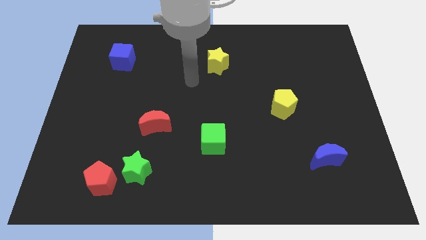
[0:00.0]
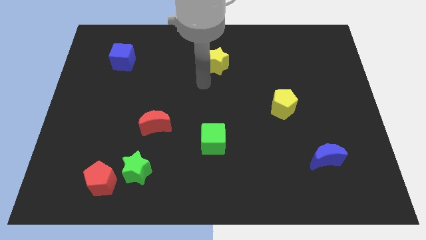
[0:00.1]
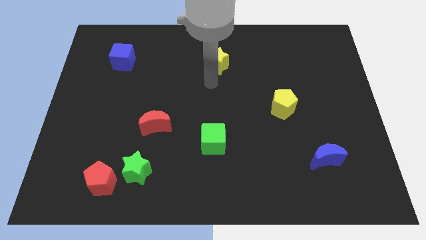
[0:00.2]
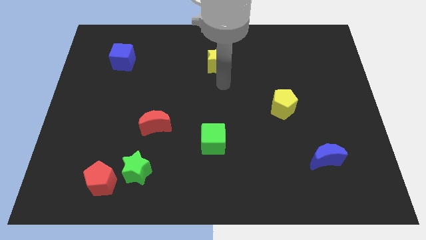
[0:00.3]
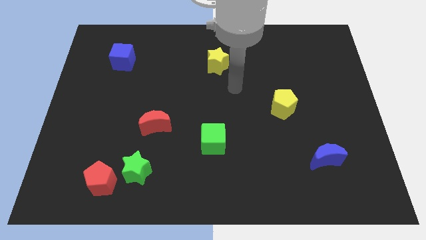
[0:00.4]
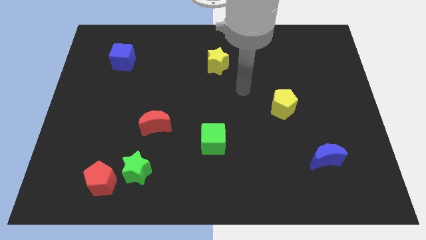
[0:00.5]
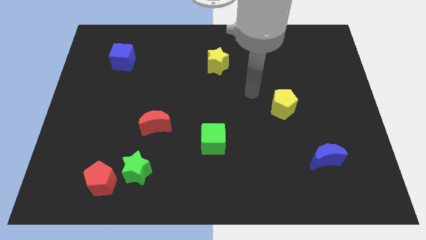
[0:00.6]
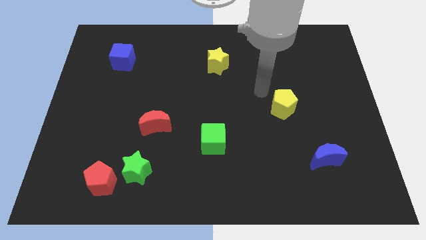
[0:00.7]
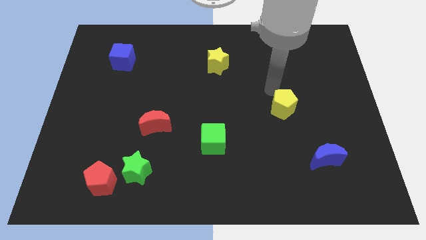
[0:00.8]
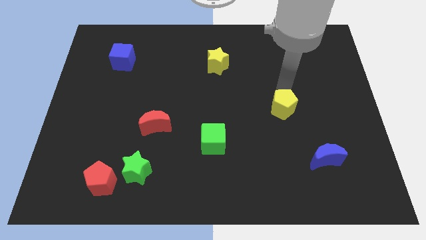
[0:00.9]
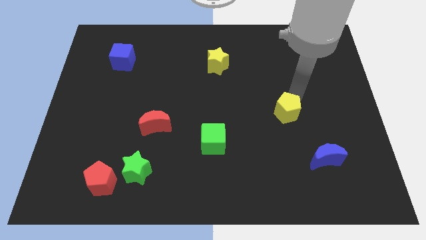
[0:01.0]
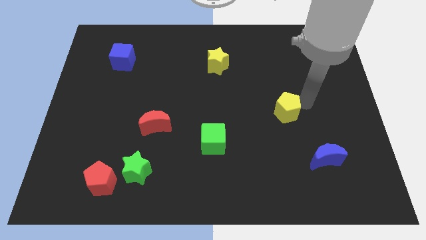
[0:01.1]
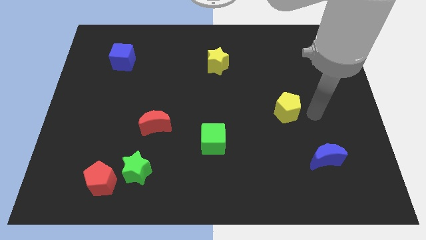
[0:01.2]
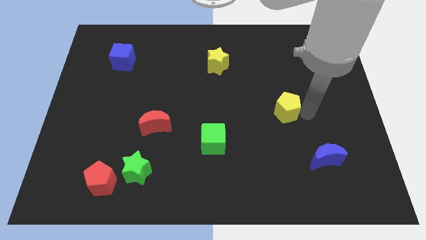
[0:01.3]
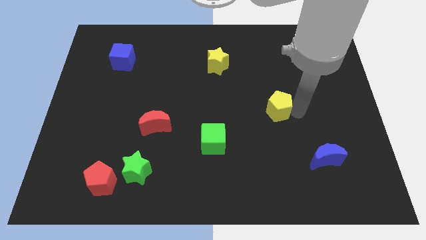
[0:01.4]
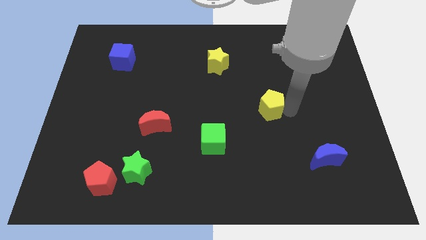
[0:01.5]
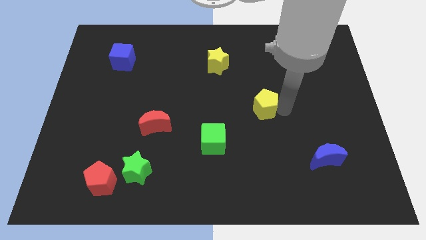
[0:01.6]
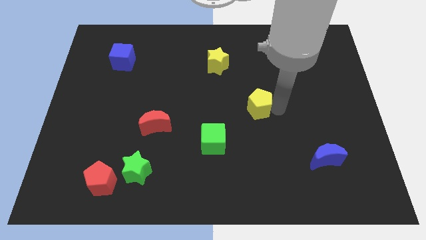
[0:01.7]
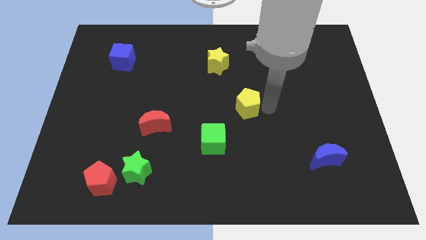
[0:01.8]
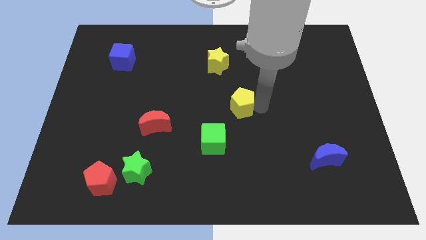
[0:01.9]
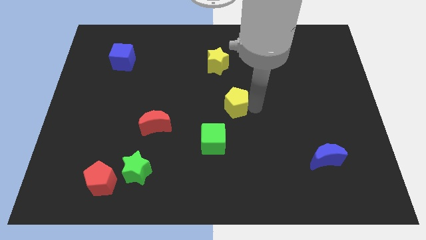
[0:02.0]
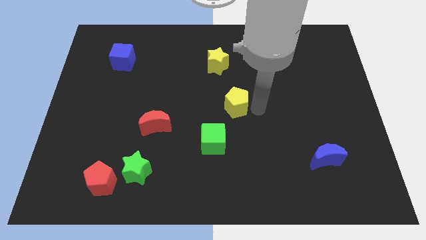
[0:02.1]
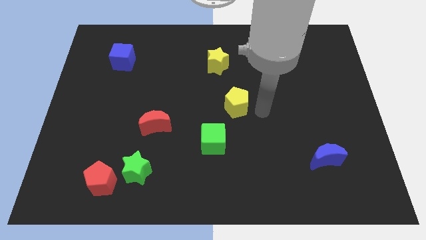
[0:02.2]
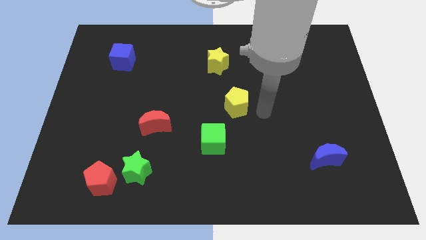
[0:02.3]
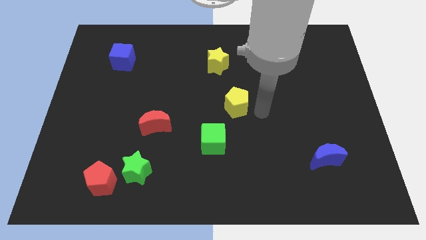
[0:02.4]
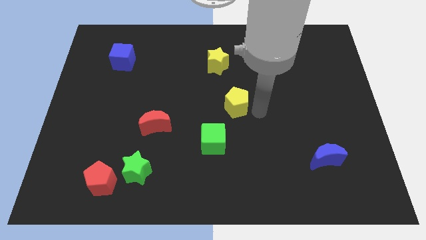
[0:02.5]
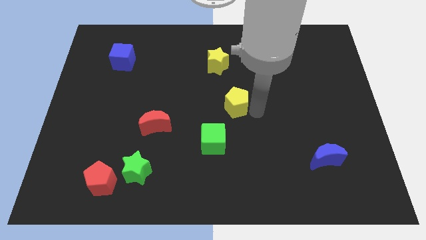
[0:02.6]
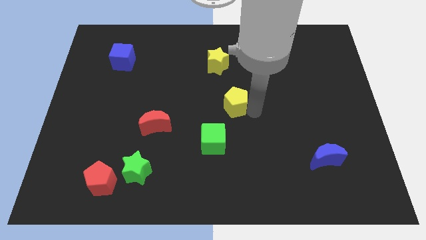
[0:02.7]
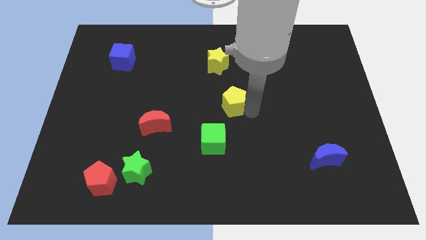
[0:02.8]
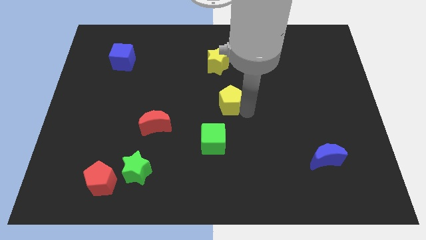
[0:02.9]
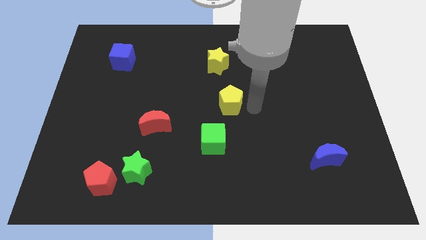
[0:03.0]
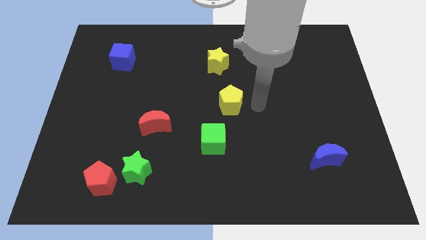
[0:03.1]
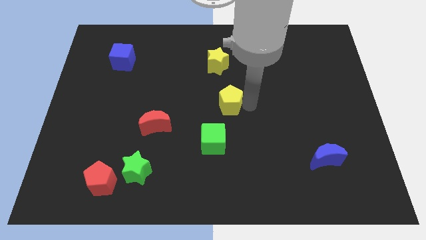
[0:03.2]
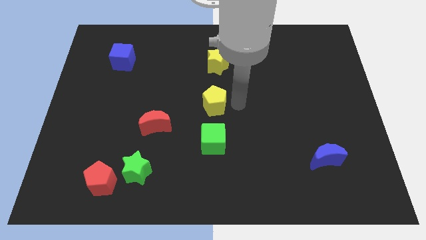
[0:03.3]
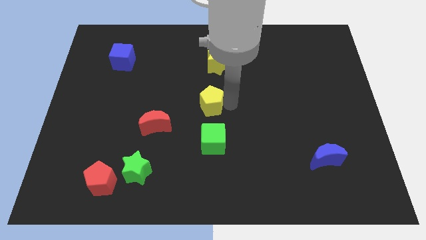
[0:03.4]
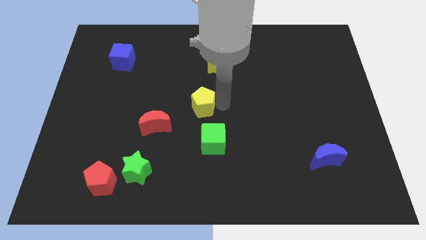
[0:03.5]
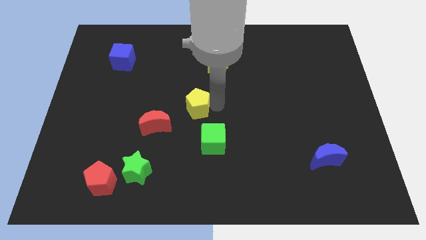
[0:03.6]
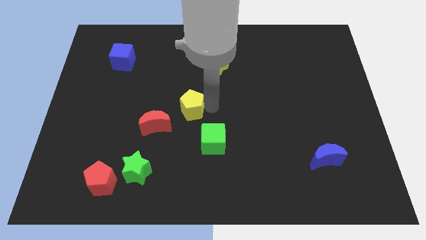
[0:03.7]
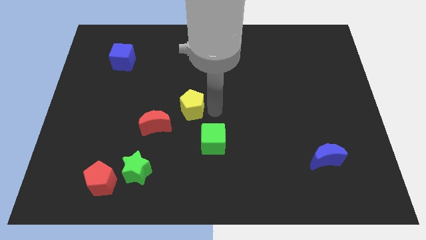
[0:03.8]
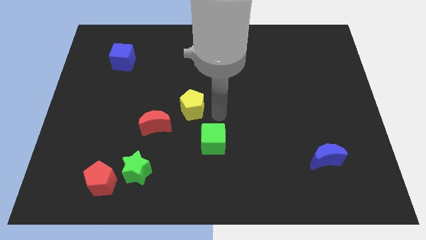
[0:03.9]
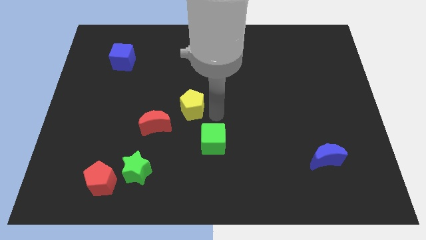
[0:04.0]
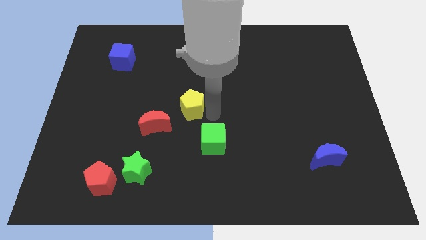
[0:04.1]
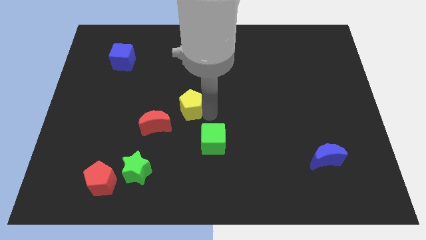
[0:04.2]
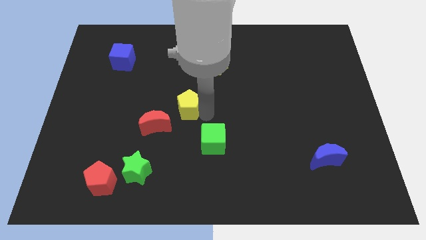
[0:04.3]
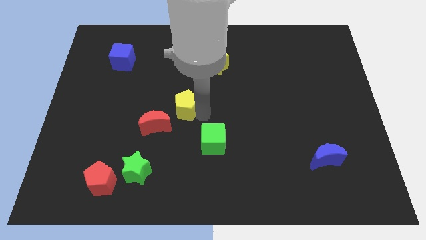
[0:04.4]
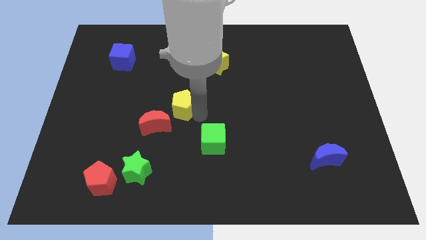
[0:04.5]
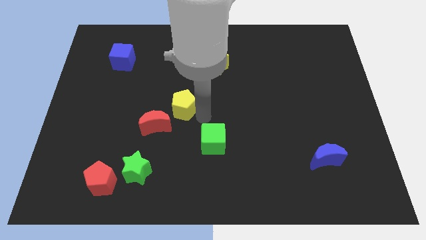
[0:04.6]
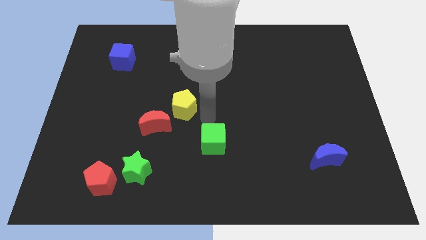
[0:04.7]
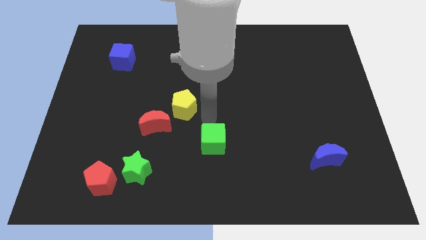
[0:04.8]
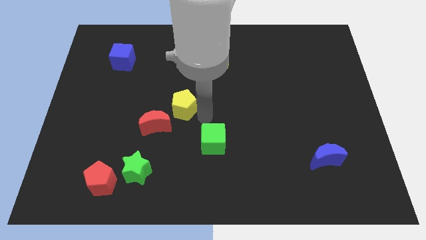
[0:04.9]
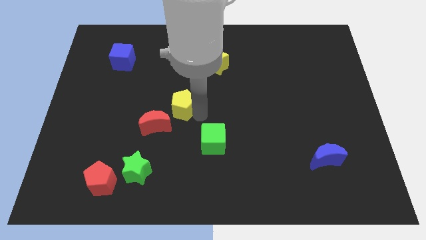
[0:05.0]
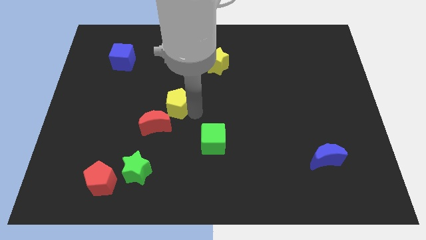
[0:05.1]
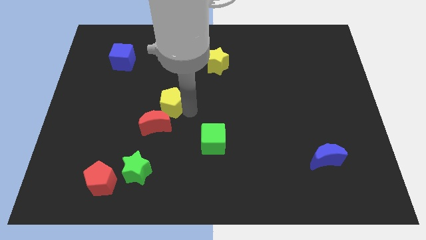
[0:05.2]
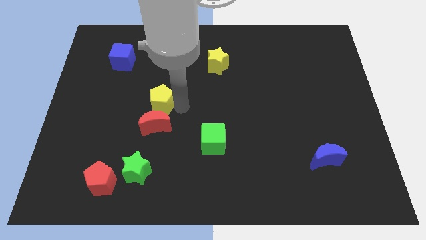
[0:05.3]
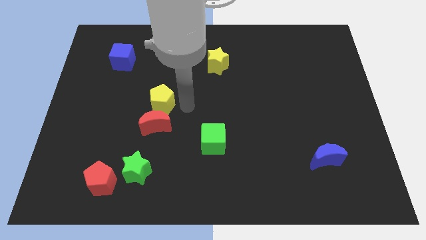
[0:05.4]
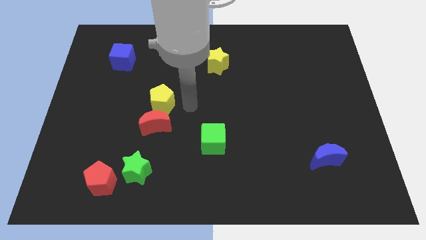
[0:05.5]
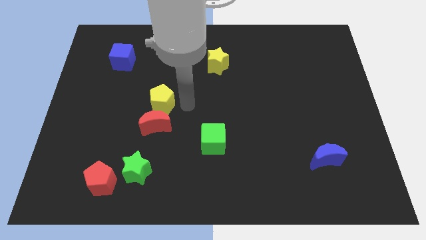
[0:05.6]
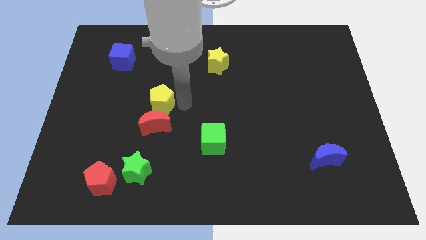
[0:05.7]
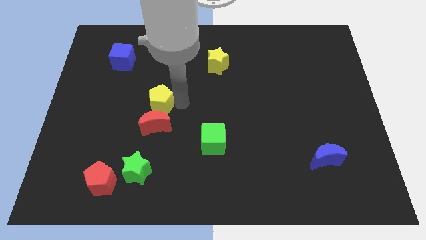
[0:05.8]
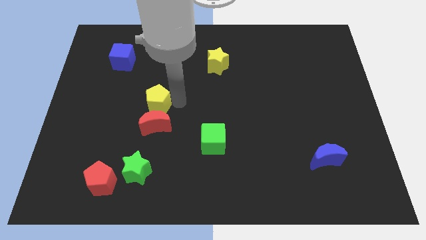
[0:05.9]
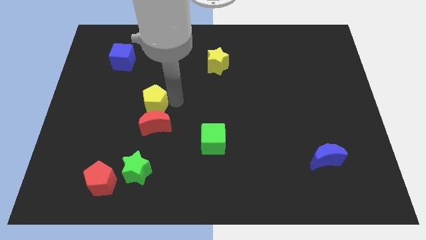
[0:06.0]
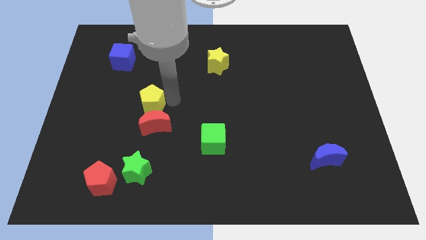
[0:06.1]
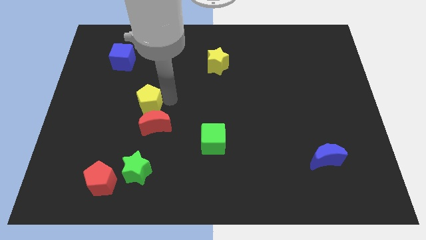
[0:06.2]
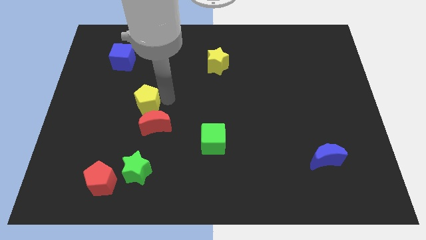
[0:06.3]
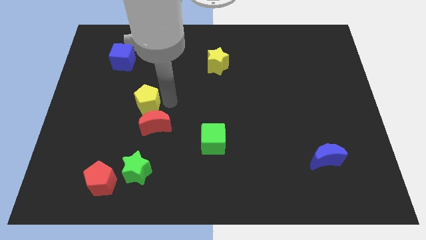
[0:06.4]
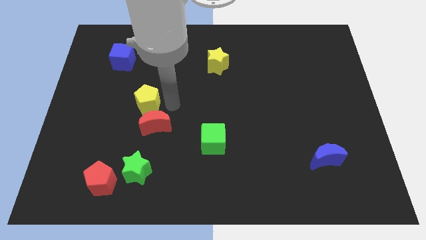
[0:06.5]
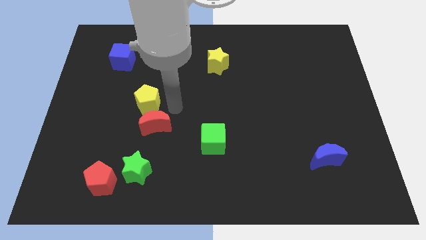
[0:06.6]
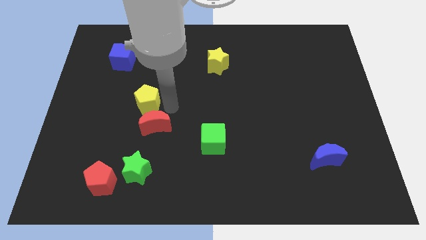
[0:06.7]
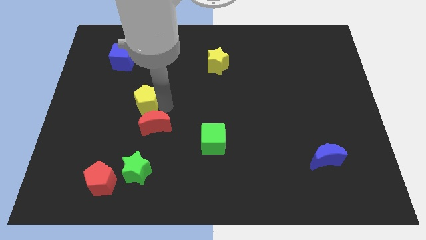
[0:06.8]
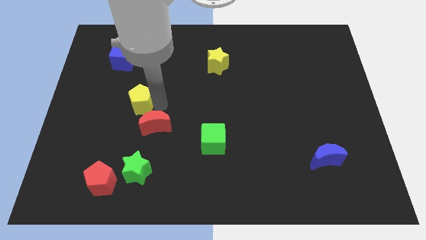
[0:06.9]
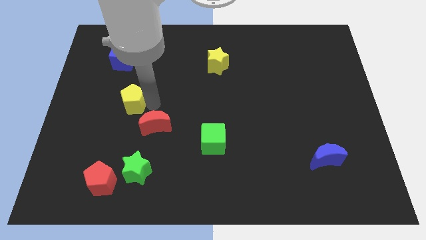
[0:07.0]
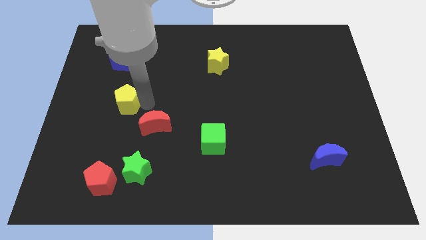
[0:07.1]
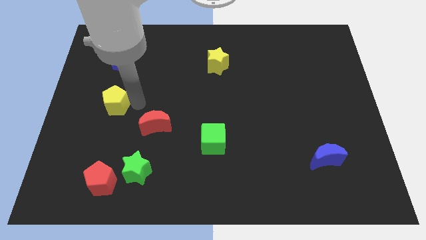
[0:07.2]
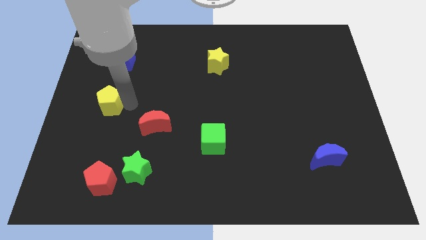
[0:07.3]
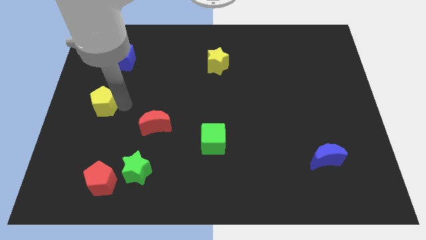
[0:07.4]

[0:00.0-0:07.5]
slide the yellow pentagon to the left side
